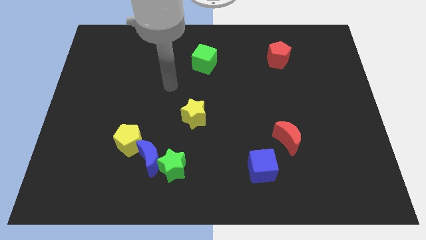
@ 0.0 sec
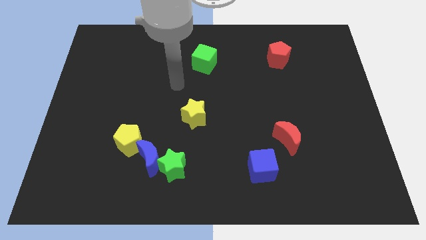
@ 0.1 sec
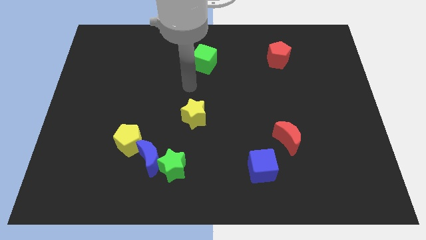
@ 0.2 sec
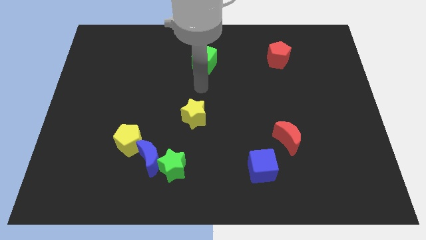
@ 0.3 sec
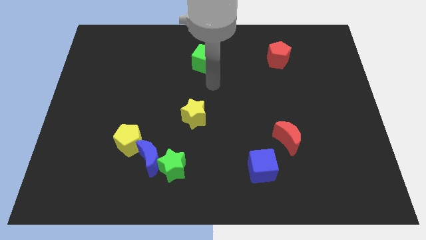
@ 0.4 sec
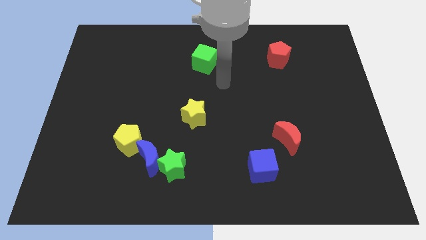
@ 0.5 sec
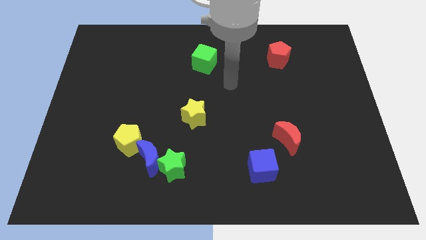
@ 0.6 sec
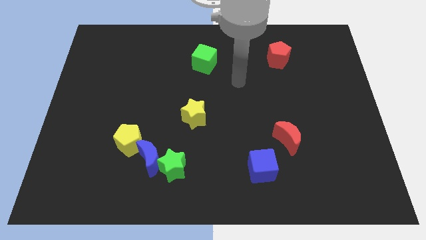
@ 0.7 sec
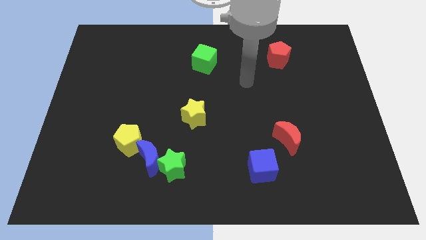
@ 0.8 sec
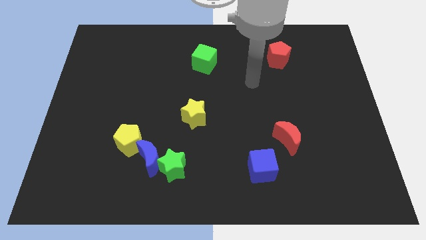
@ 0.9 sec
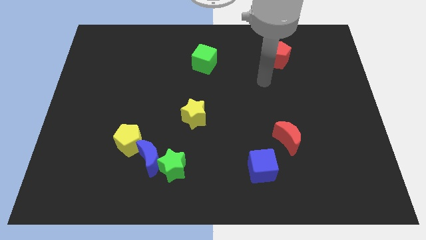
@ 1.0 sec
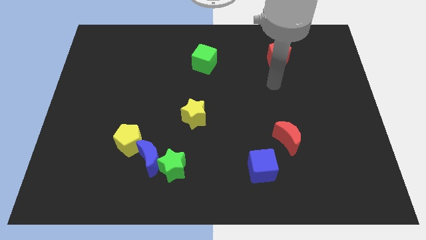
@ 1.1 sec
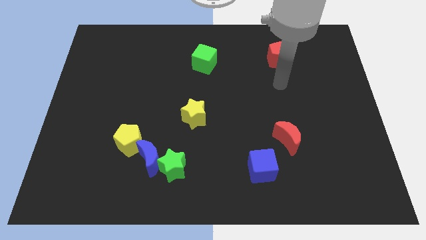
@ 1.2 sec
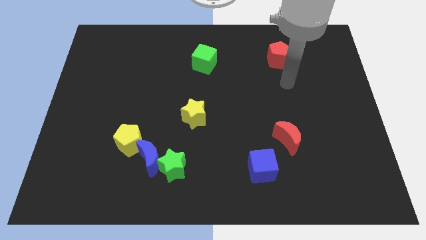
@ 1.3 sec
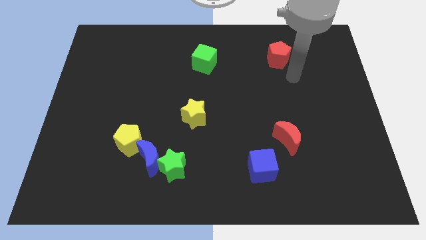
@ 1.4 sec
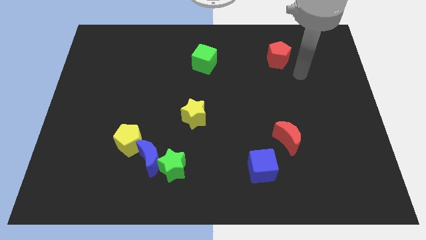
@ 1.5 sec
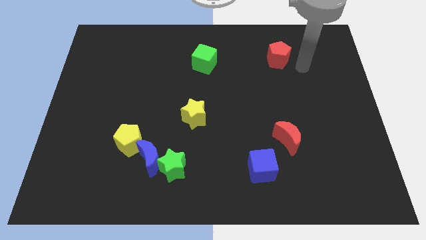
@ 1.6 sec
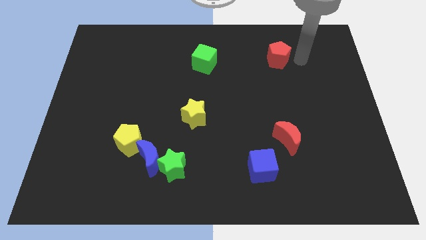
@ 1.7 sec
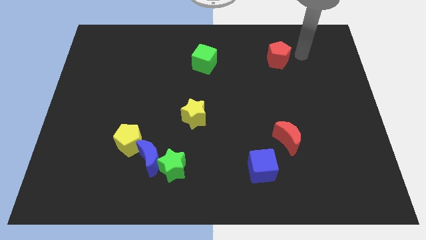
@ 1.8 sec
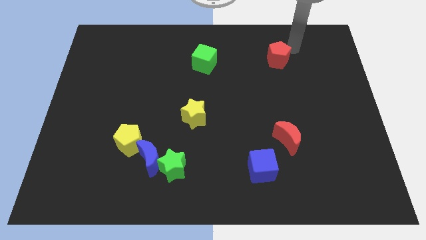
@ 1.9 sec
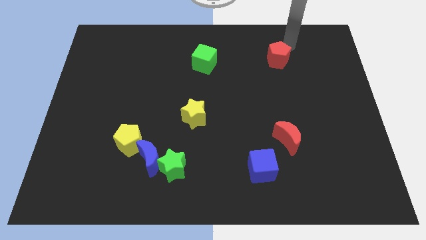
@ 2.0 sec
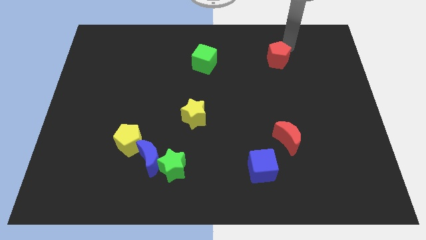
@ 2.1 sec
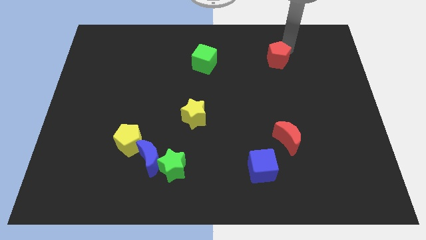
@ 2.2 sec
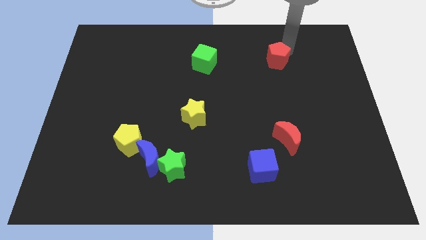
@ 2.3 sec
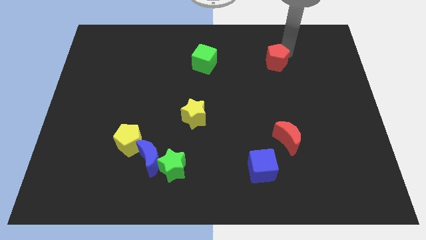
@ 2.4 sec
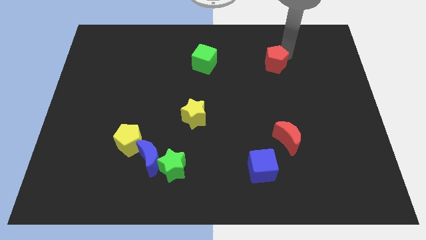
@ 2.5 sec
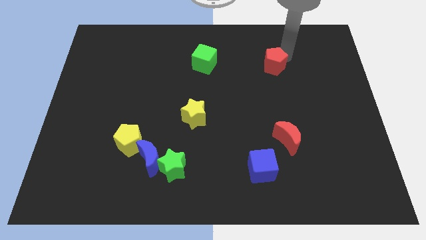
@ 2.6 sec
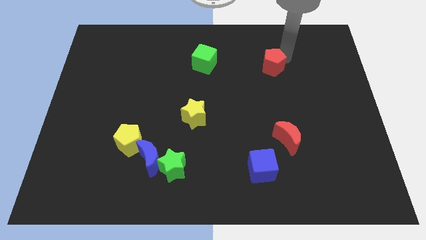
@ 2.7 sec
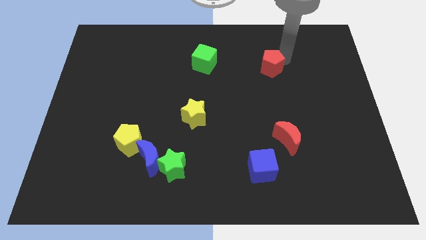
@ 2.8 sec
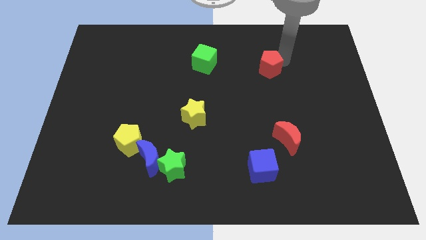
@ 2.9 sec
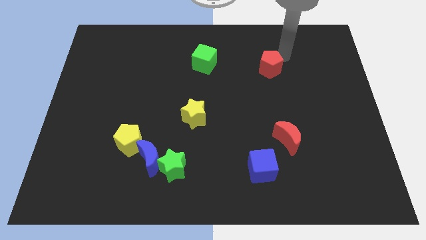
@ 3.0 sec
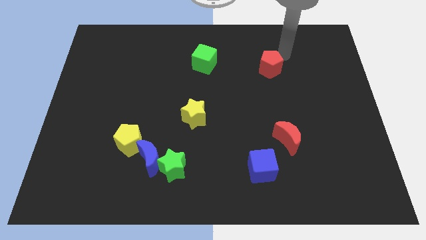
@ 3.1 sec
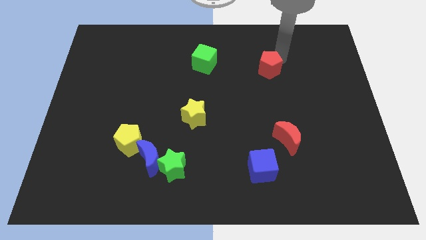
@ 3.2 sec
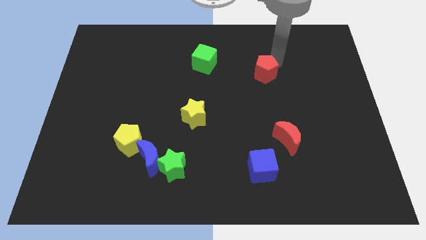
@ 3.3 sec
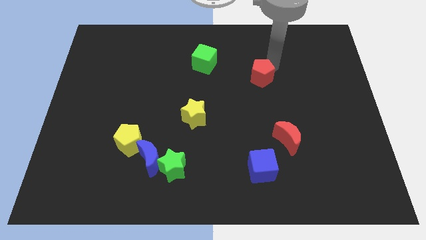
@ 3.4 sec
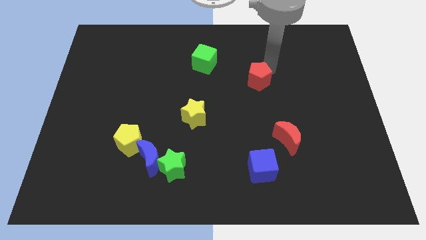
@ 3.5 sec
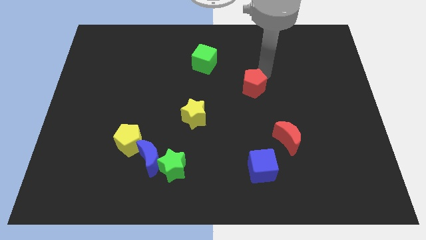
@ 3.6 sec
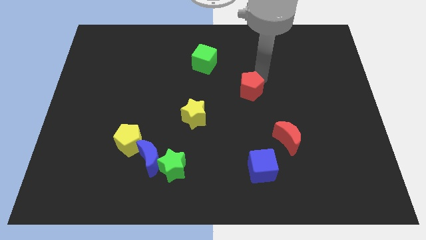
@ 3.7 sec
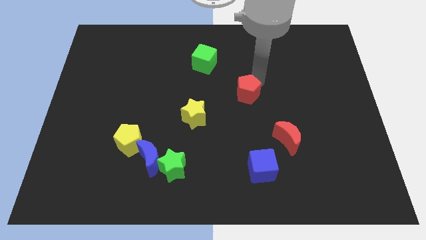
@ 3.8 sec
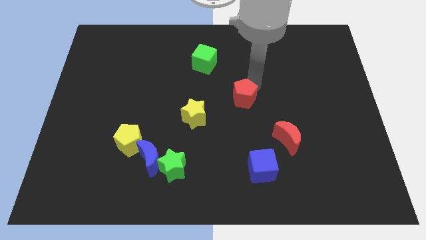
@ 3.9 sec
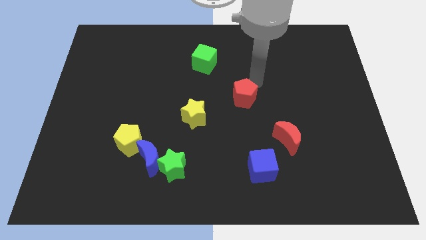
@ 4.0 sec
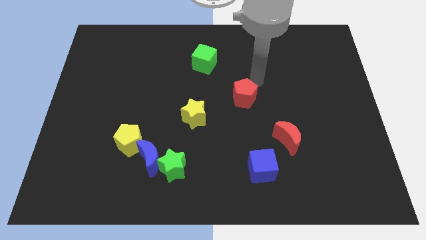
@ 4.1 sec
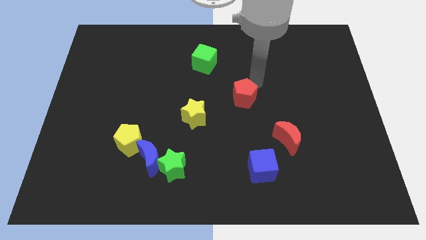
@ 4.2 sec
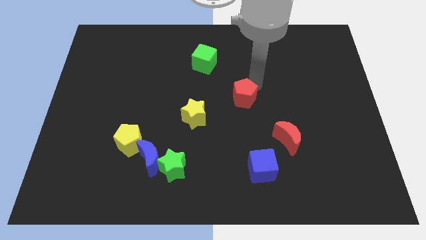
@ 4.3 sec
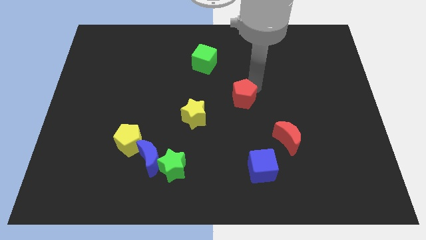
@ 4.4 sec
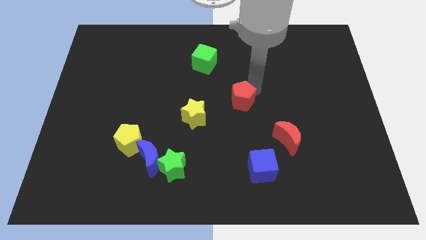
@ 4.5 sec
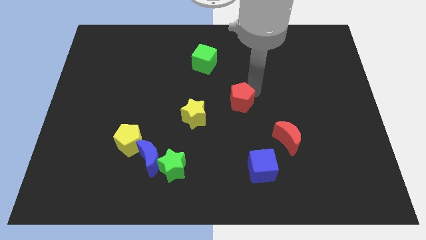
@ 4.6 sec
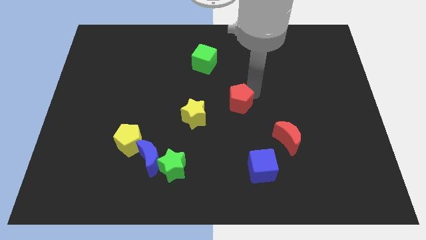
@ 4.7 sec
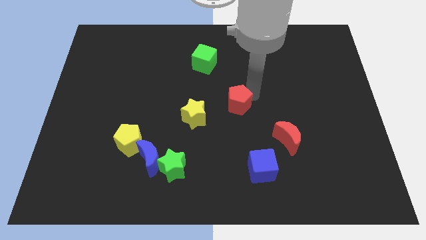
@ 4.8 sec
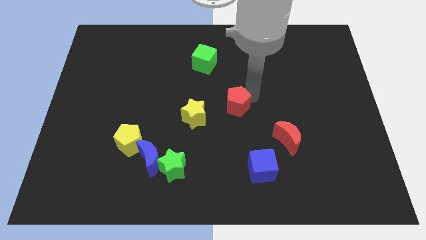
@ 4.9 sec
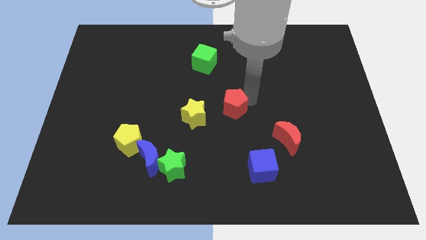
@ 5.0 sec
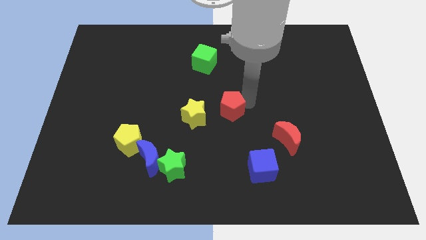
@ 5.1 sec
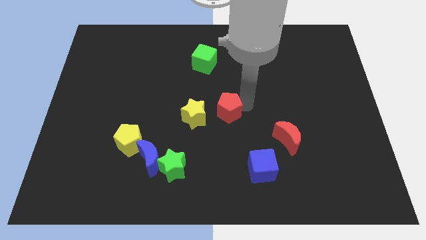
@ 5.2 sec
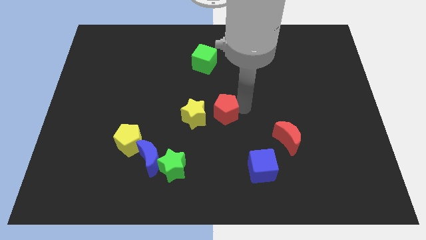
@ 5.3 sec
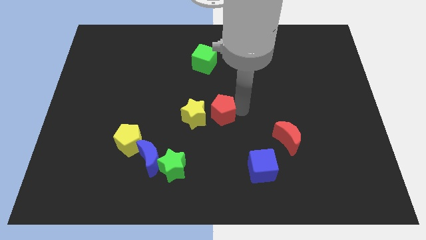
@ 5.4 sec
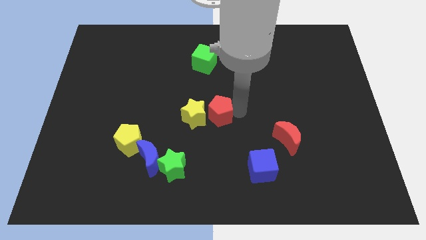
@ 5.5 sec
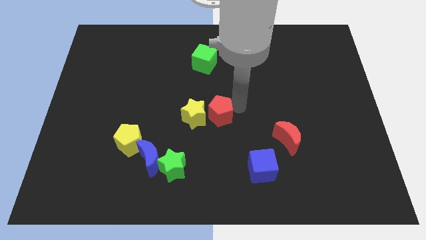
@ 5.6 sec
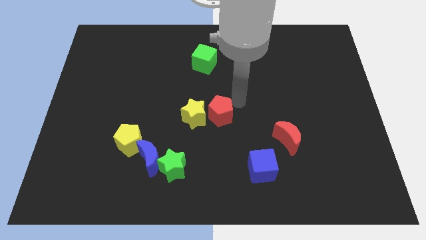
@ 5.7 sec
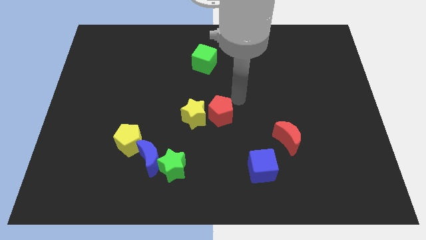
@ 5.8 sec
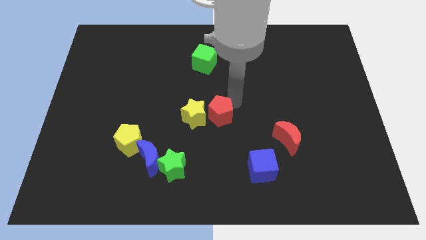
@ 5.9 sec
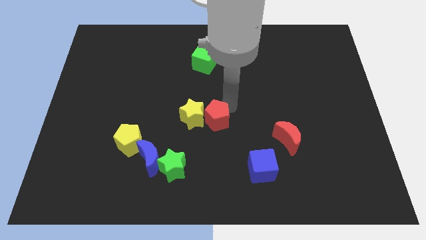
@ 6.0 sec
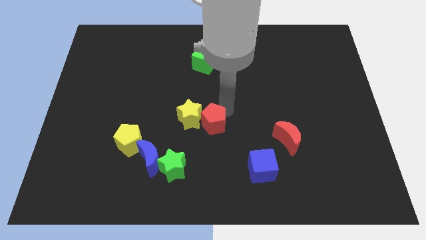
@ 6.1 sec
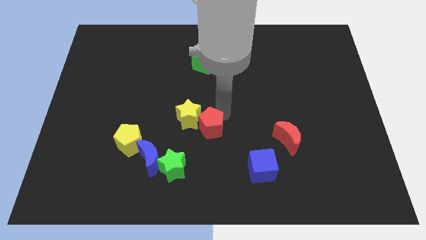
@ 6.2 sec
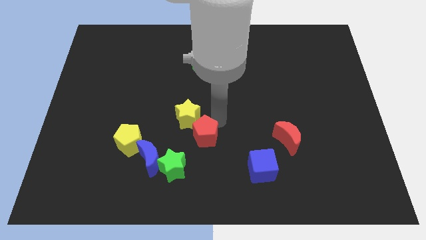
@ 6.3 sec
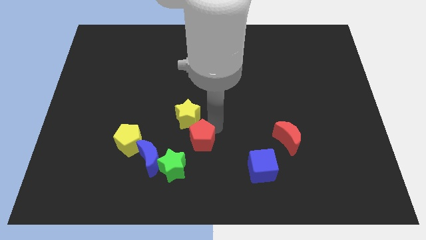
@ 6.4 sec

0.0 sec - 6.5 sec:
slide the red pentagon right of the yellow pentagon

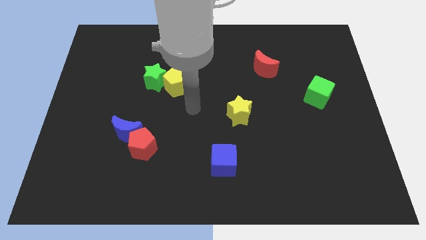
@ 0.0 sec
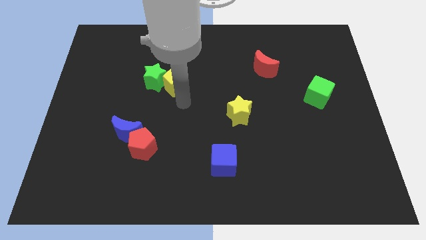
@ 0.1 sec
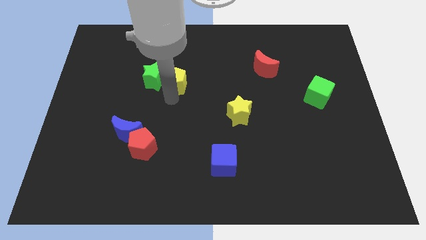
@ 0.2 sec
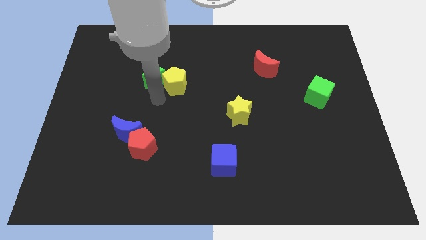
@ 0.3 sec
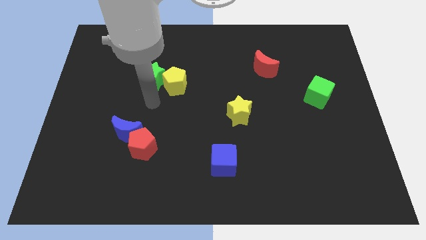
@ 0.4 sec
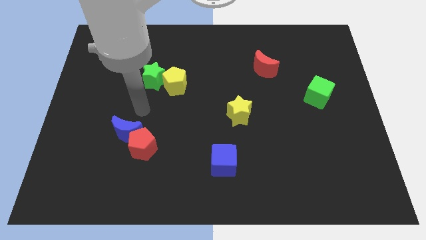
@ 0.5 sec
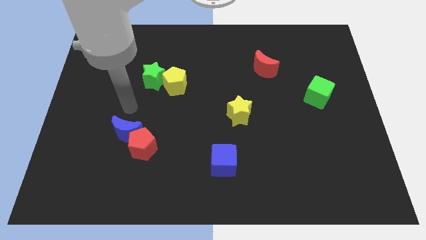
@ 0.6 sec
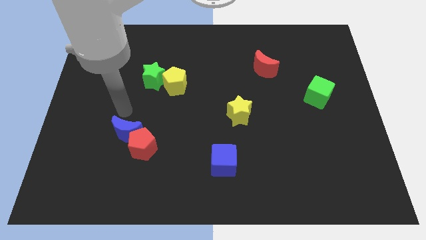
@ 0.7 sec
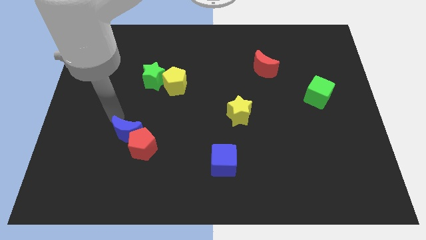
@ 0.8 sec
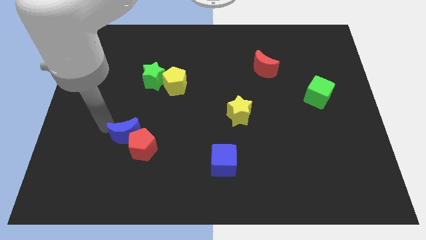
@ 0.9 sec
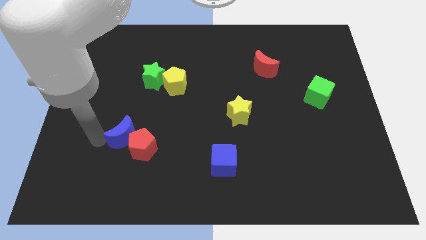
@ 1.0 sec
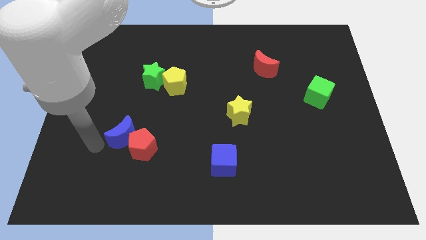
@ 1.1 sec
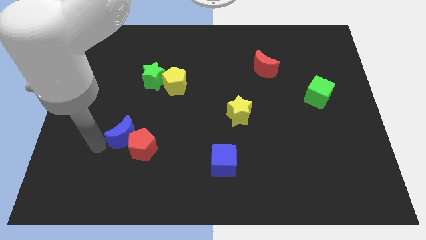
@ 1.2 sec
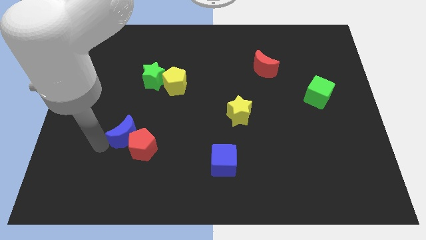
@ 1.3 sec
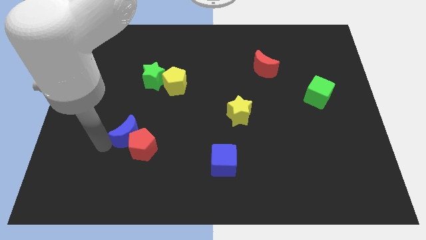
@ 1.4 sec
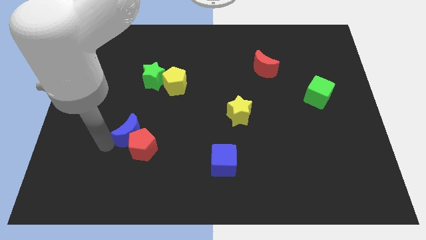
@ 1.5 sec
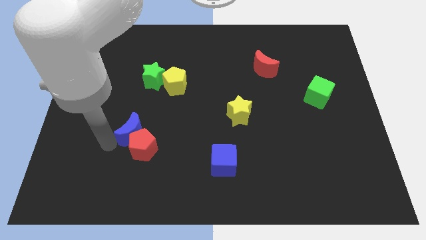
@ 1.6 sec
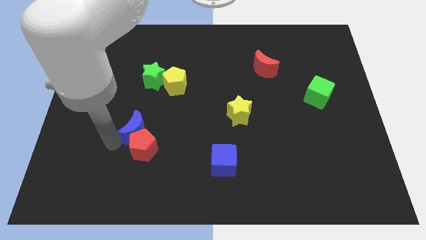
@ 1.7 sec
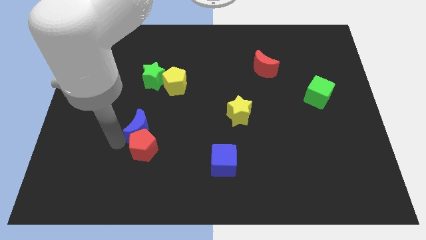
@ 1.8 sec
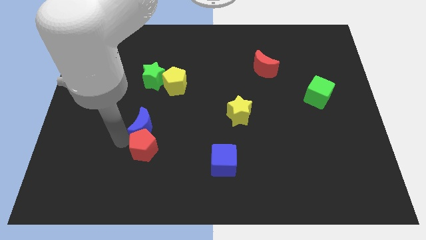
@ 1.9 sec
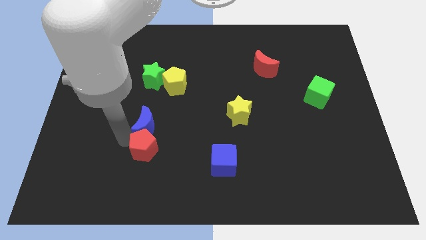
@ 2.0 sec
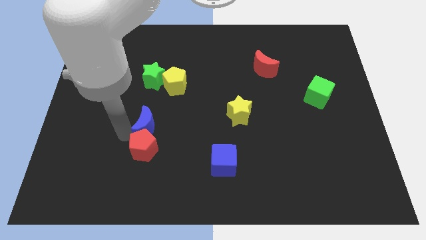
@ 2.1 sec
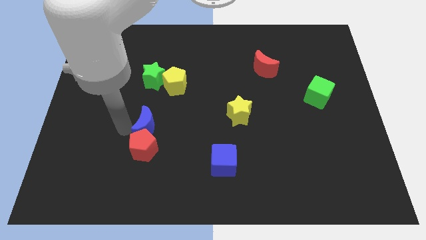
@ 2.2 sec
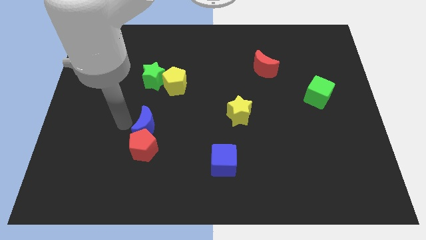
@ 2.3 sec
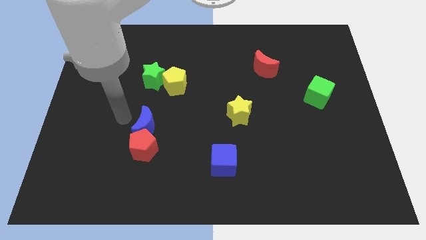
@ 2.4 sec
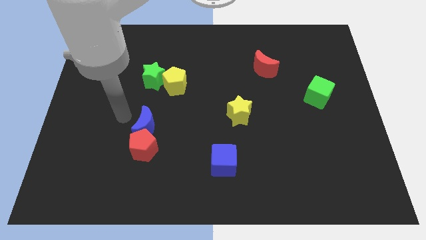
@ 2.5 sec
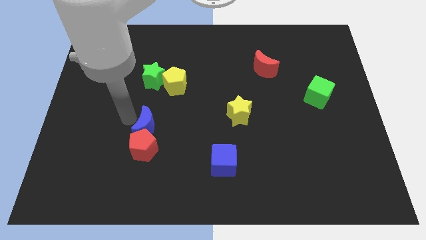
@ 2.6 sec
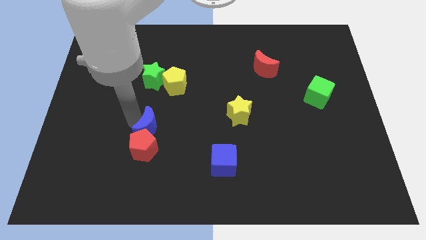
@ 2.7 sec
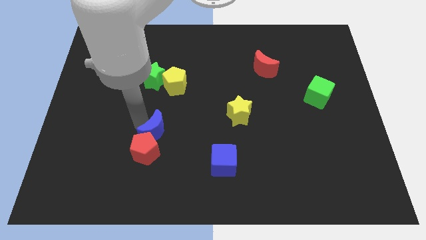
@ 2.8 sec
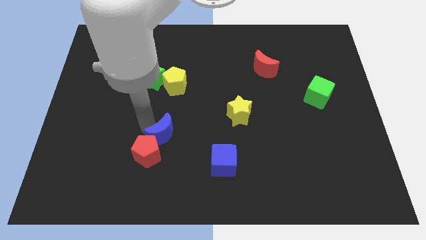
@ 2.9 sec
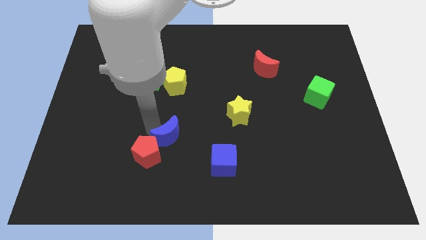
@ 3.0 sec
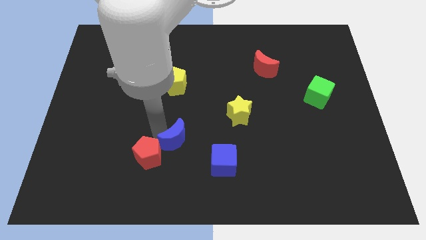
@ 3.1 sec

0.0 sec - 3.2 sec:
put the blue moon to the top left of the blue cube
